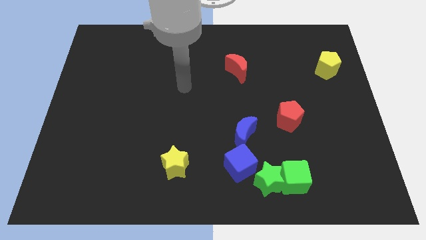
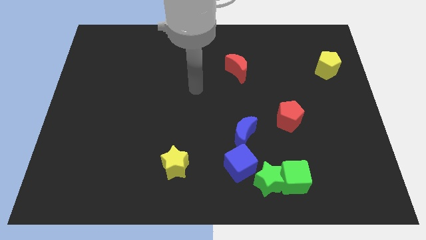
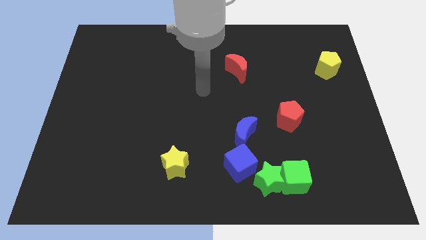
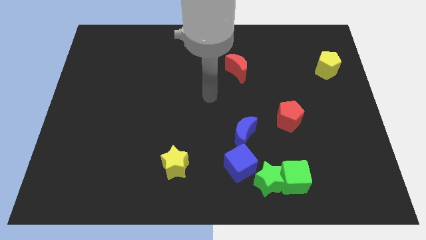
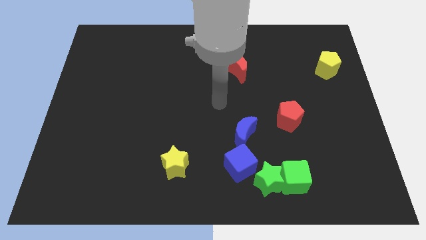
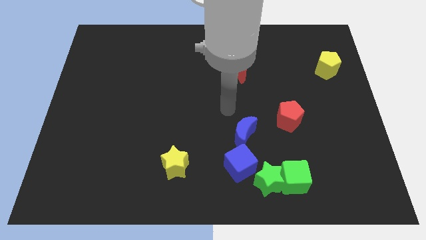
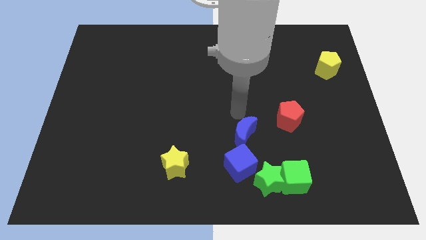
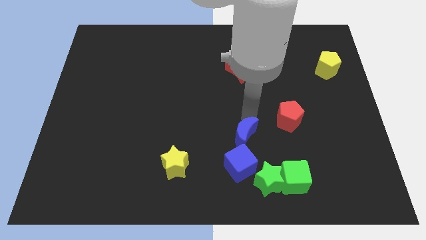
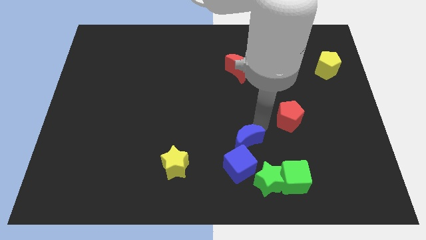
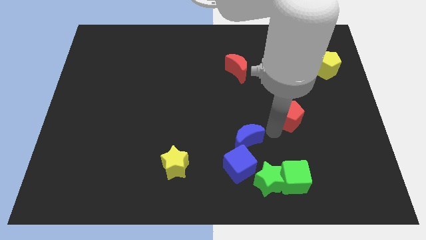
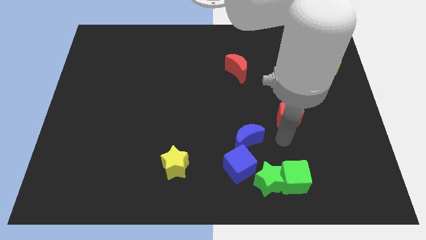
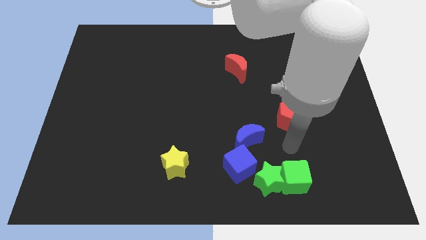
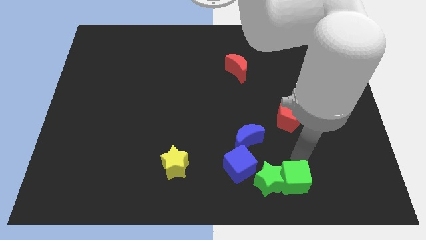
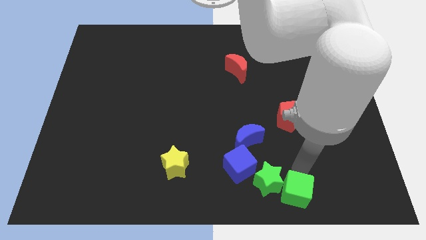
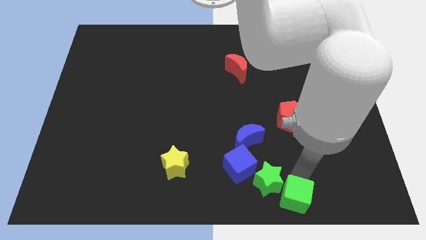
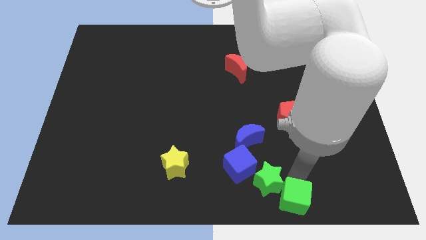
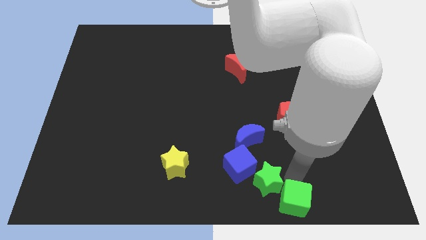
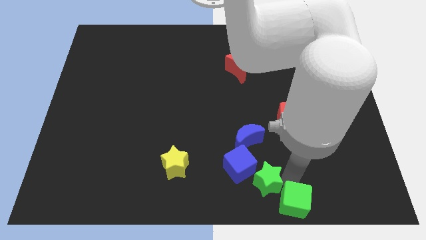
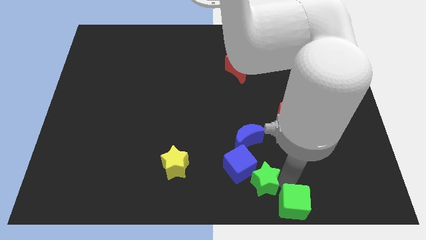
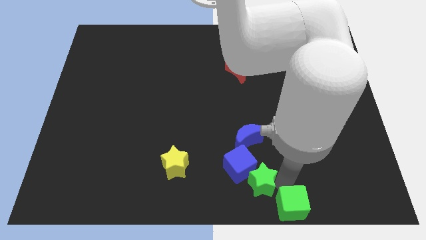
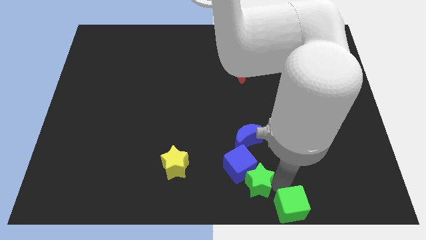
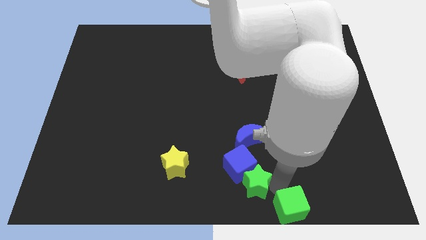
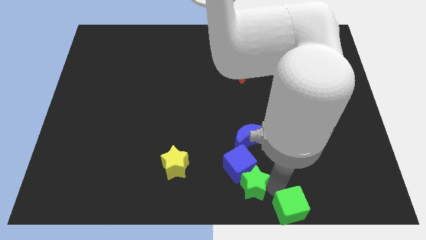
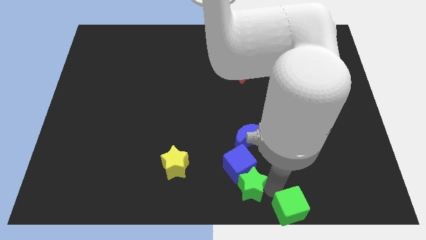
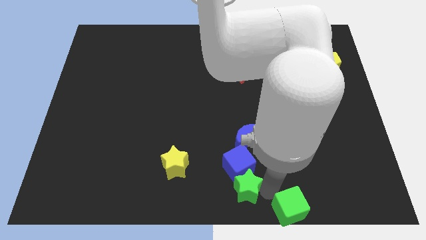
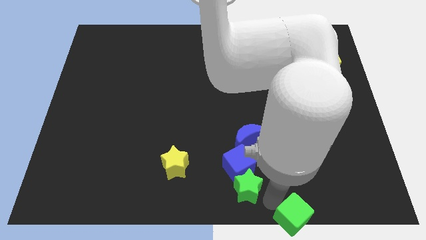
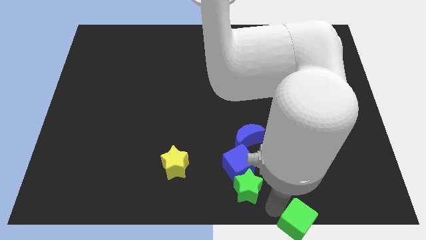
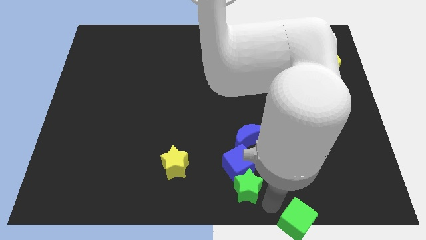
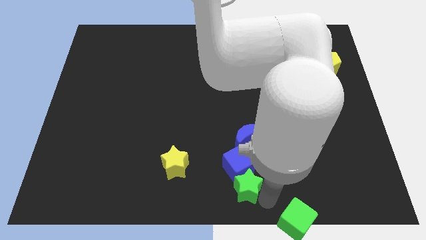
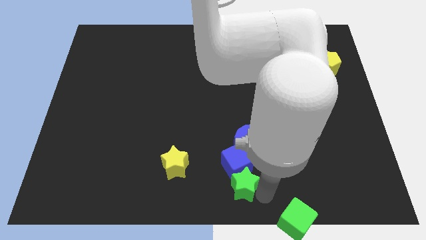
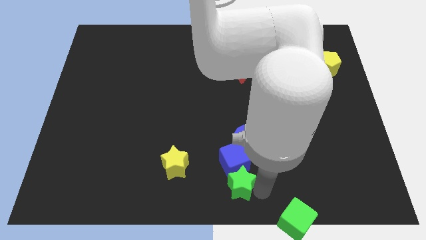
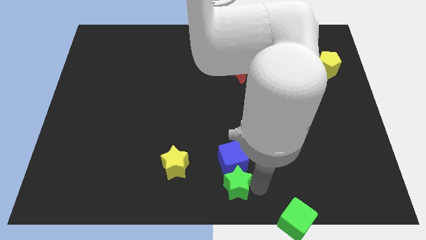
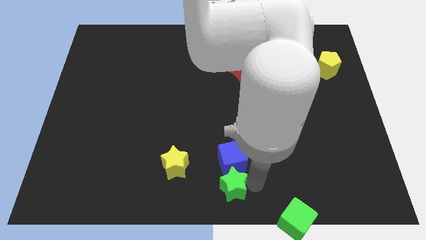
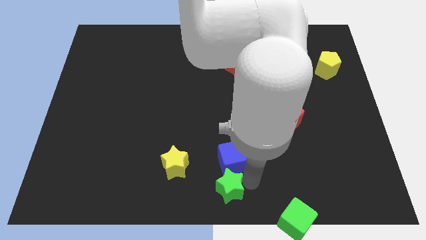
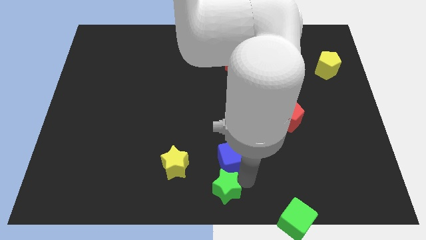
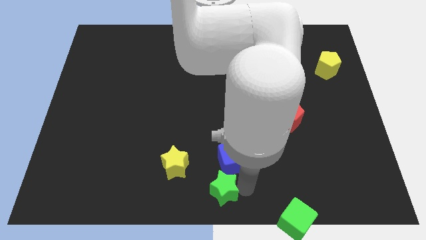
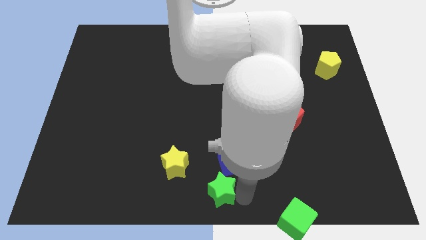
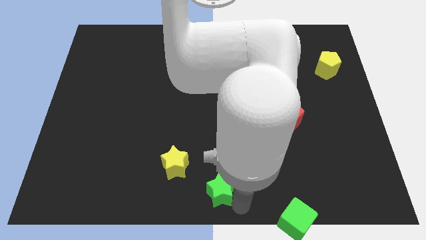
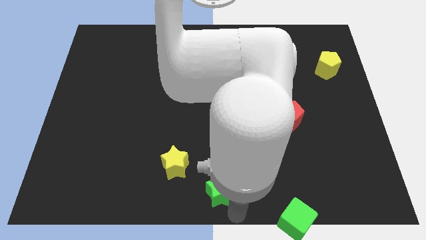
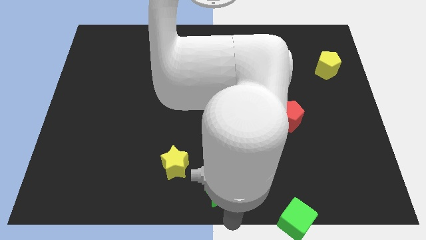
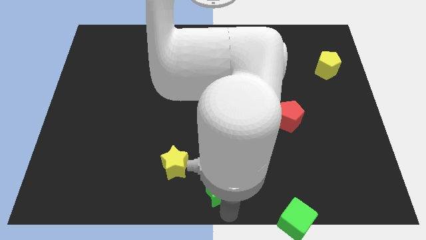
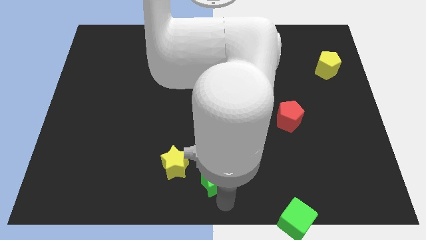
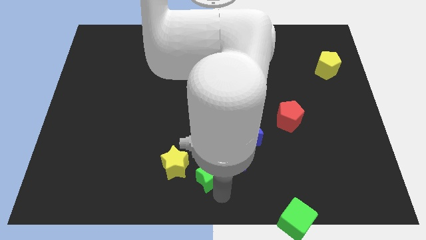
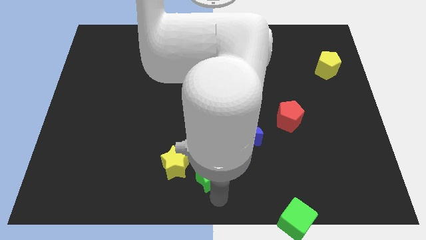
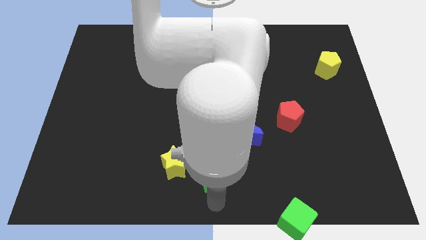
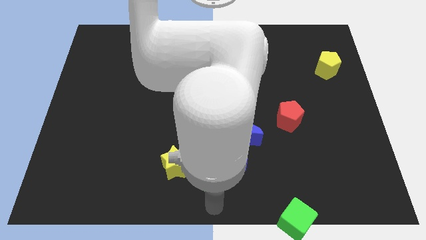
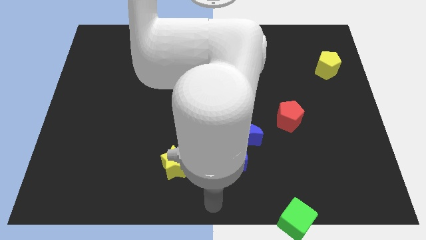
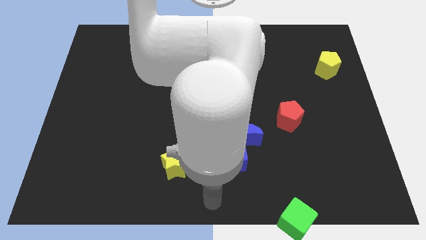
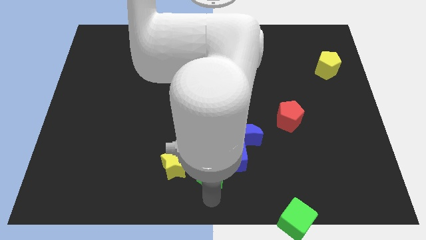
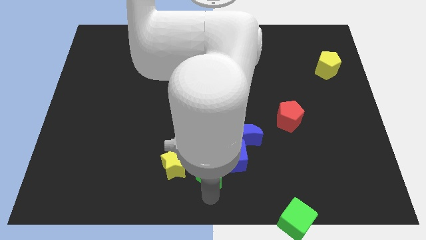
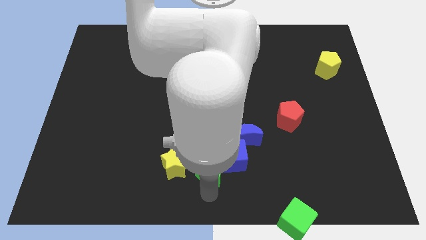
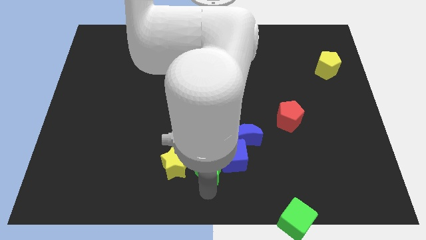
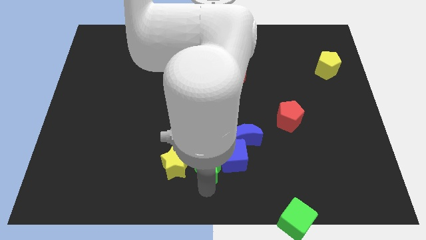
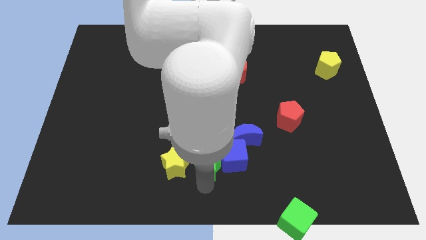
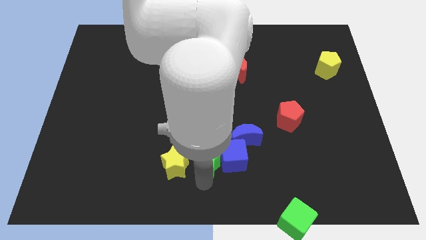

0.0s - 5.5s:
move the green star to the top right of the yellow star

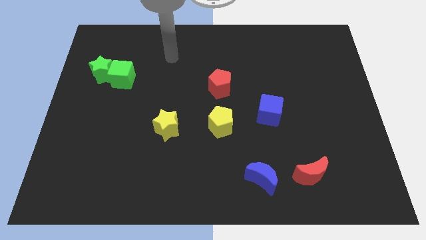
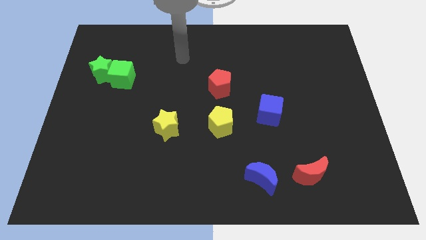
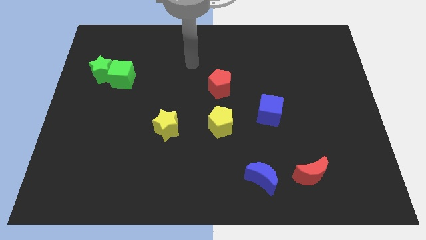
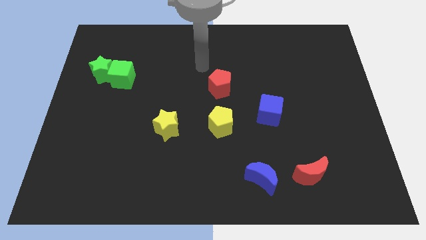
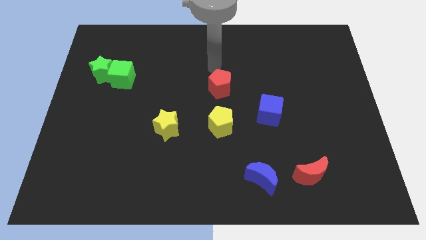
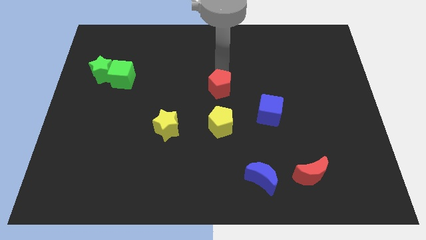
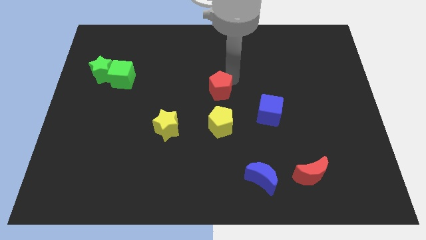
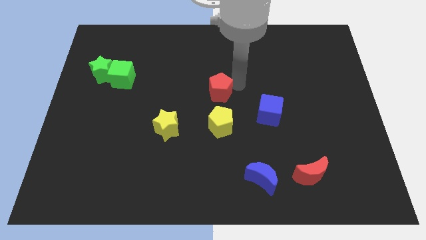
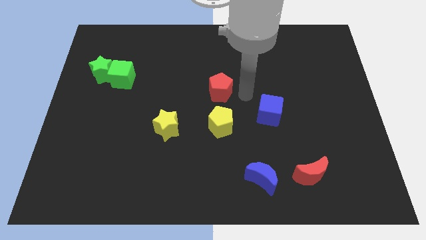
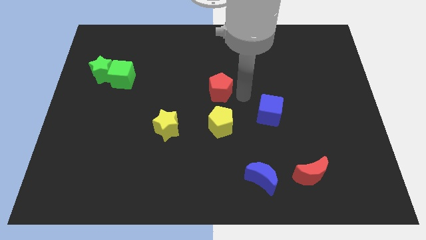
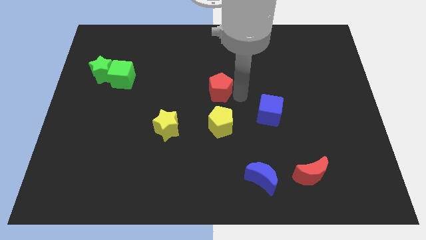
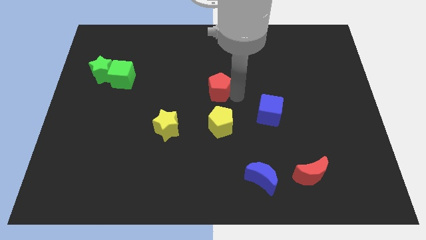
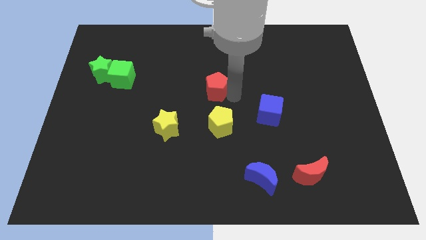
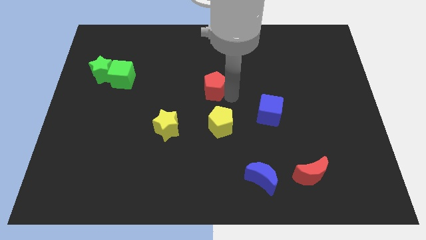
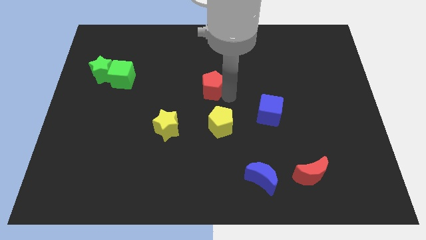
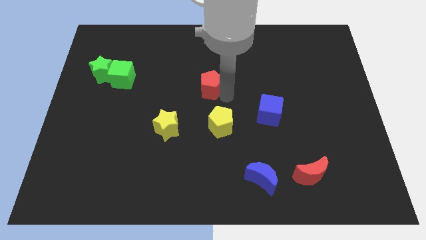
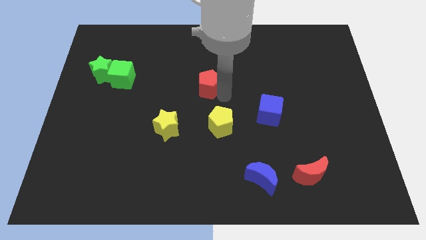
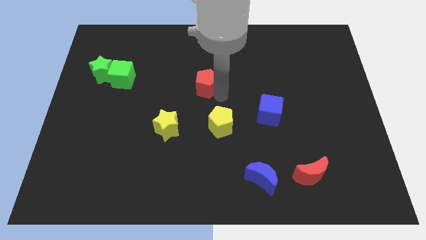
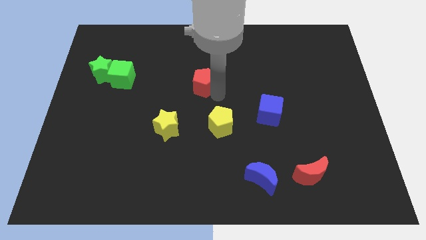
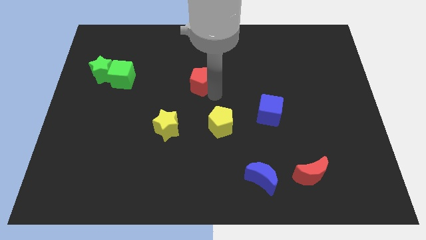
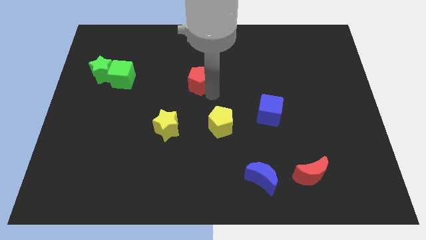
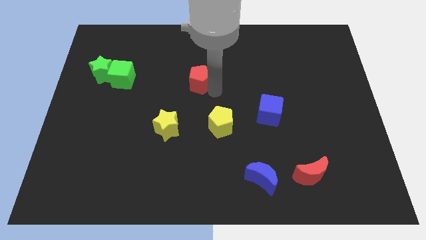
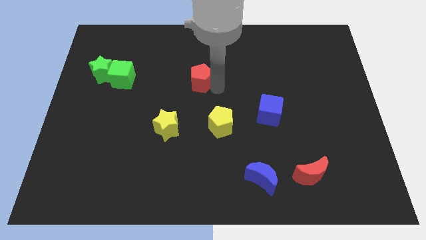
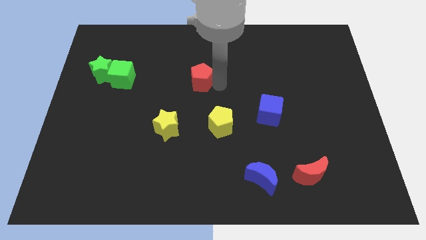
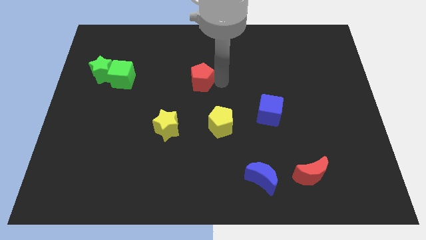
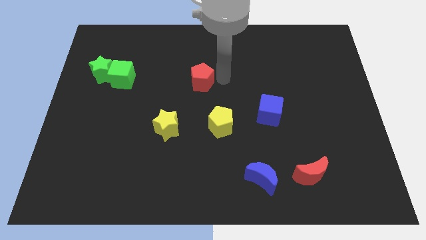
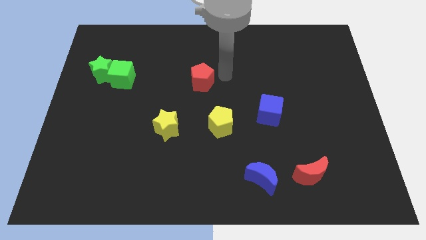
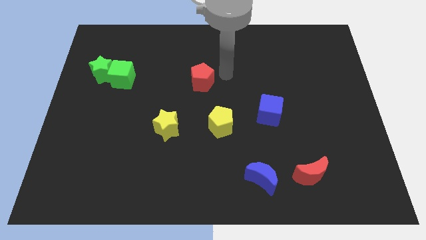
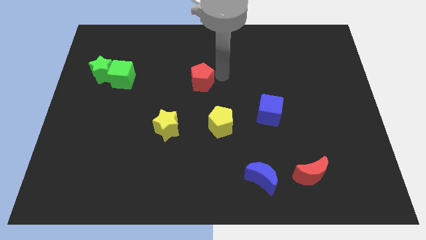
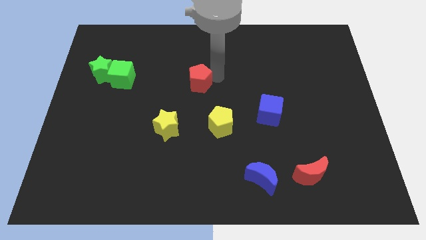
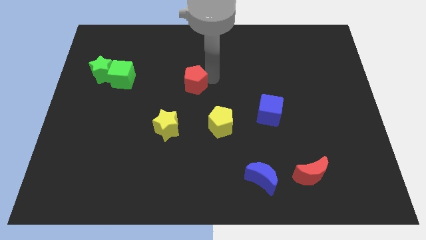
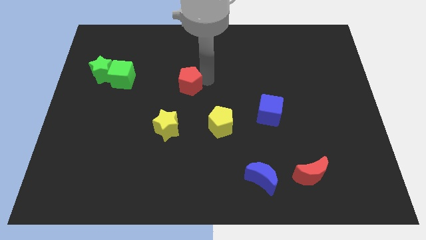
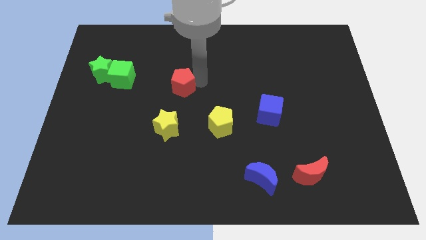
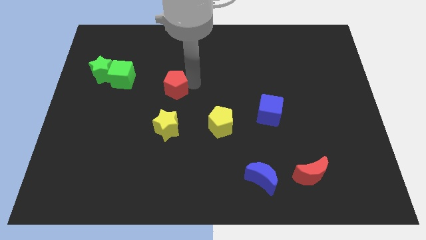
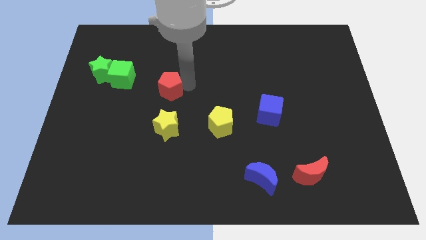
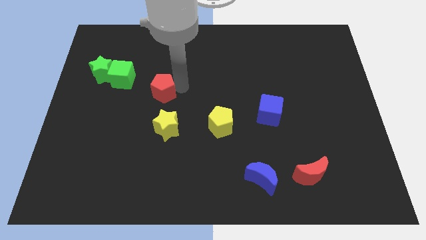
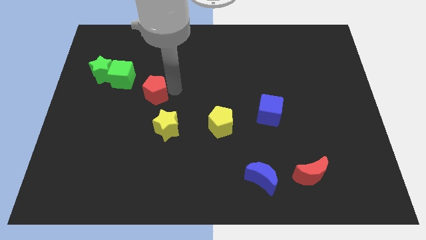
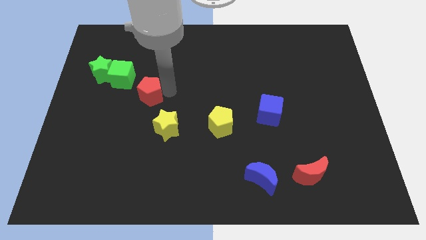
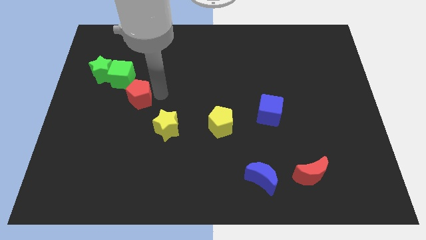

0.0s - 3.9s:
slide the red pentagon diagonally down and to the right of the green star
